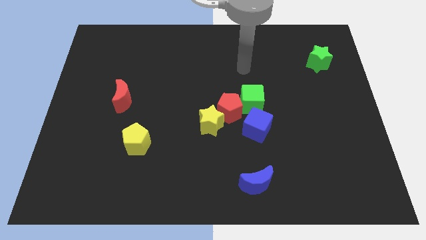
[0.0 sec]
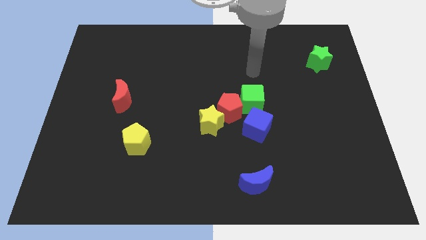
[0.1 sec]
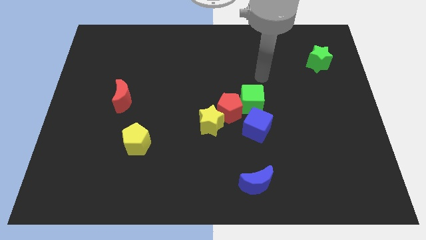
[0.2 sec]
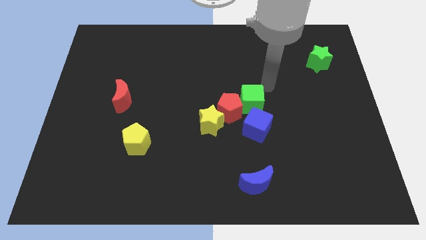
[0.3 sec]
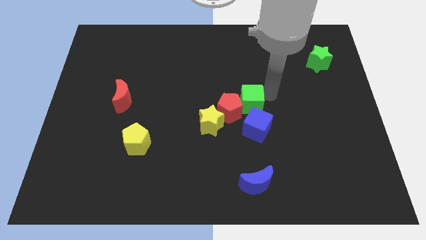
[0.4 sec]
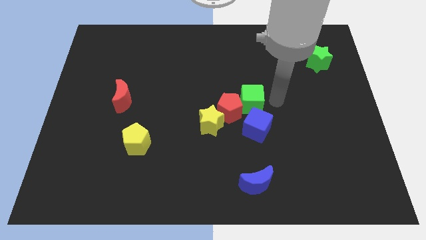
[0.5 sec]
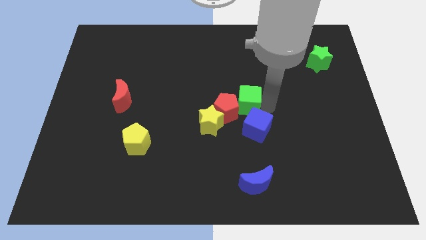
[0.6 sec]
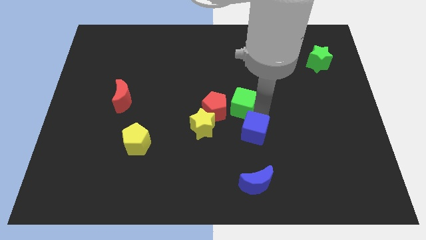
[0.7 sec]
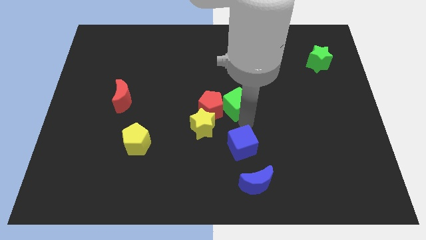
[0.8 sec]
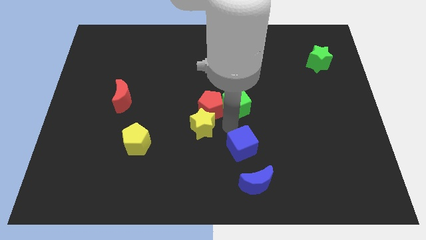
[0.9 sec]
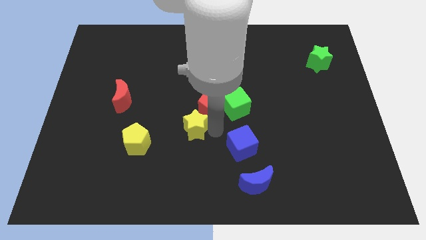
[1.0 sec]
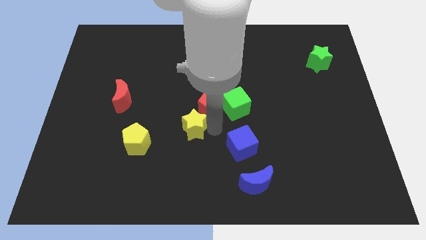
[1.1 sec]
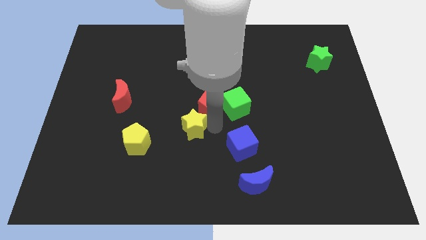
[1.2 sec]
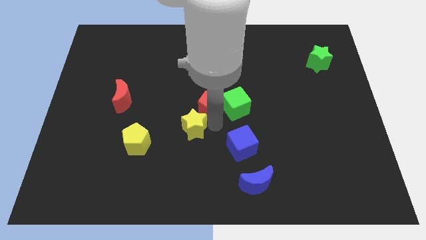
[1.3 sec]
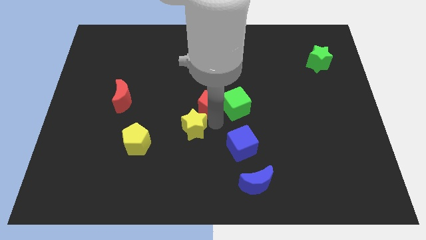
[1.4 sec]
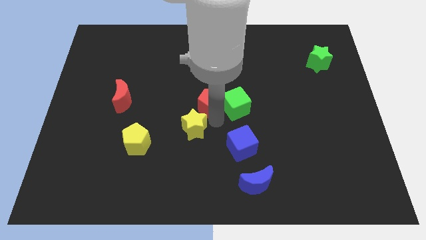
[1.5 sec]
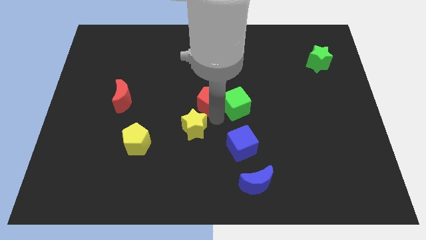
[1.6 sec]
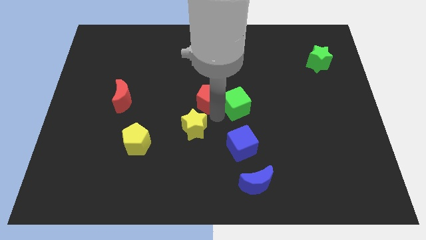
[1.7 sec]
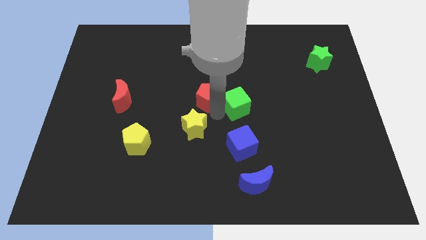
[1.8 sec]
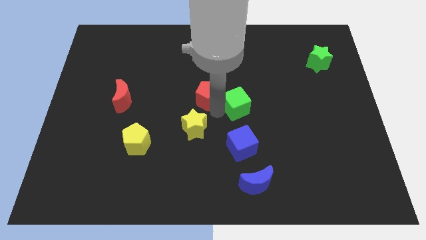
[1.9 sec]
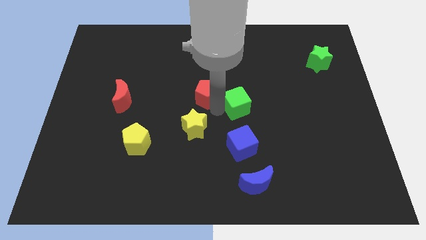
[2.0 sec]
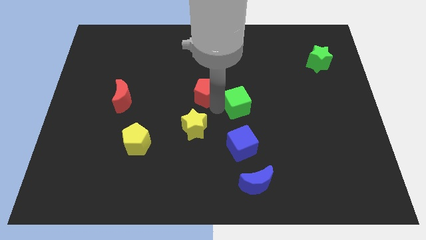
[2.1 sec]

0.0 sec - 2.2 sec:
move the red pentagon away from the group of blocks

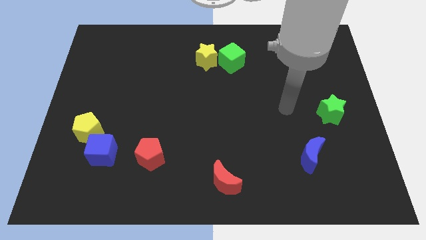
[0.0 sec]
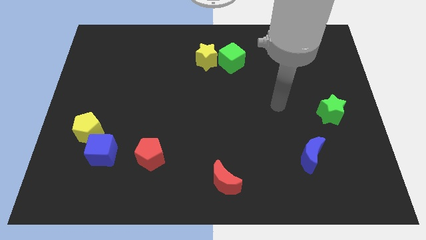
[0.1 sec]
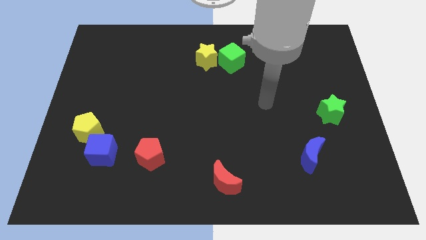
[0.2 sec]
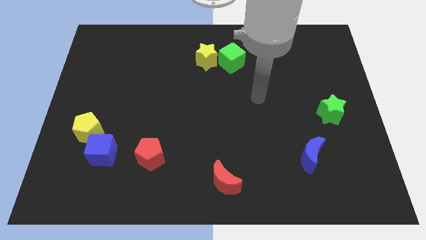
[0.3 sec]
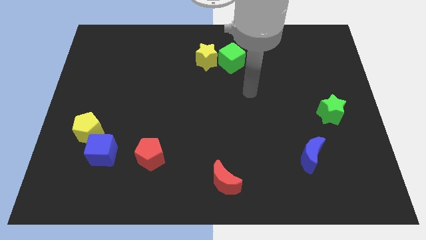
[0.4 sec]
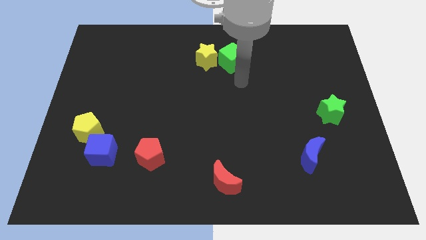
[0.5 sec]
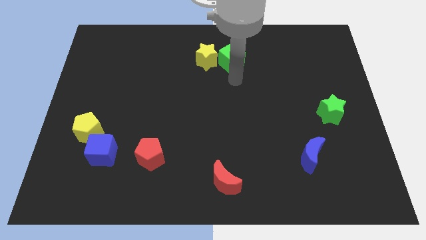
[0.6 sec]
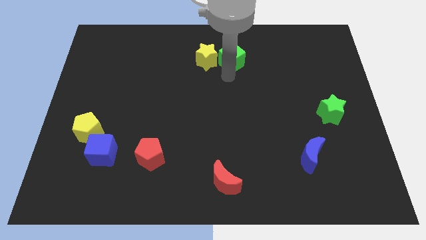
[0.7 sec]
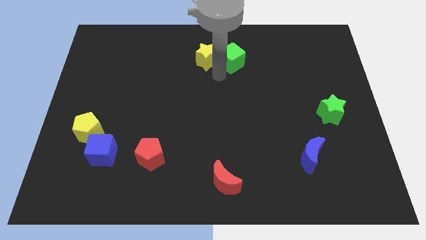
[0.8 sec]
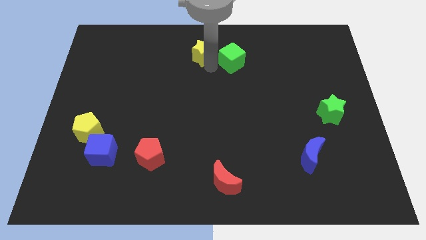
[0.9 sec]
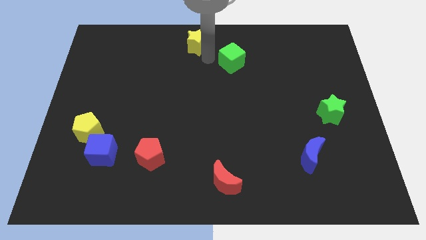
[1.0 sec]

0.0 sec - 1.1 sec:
move the green cube away from the yellow star

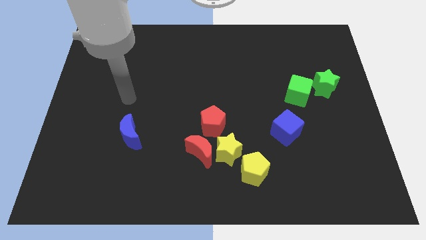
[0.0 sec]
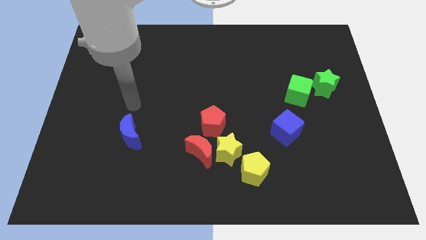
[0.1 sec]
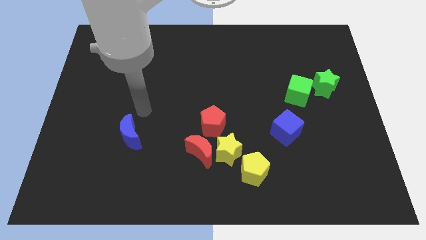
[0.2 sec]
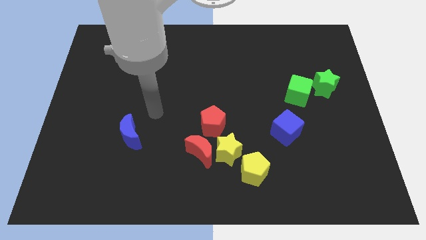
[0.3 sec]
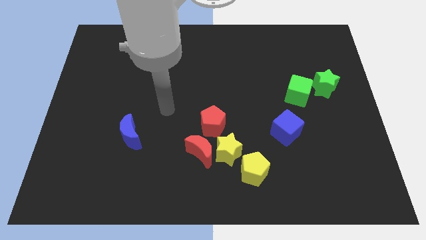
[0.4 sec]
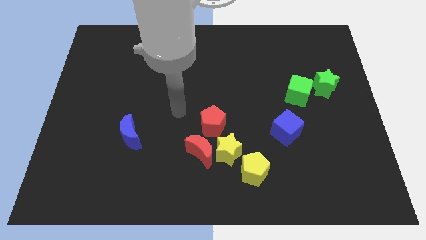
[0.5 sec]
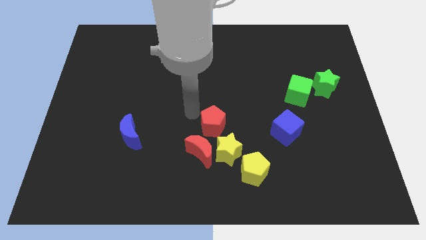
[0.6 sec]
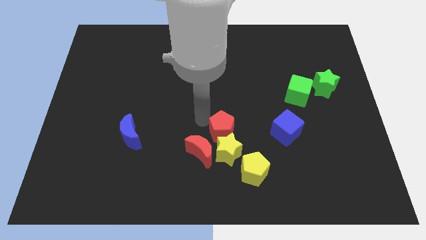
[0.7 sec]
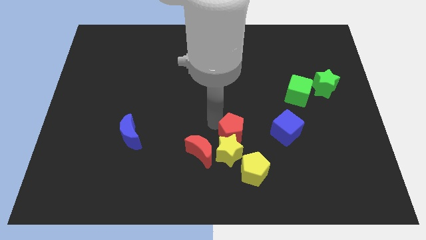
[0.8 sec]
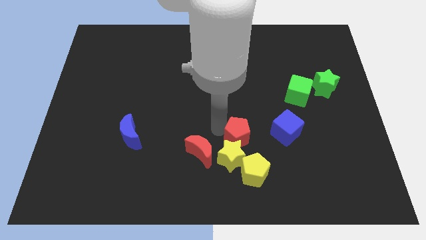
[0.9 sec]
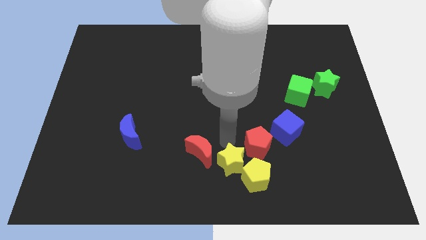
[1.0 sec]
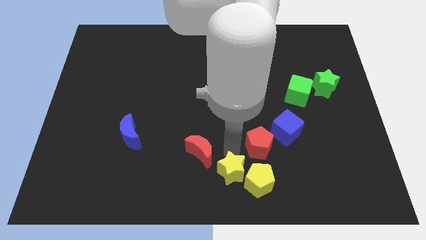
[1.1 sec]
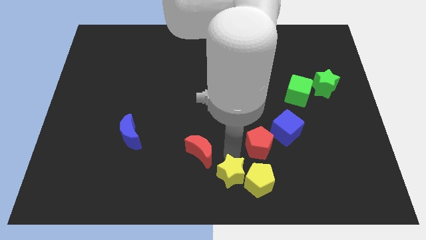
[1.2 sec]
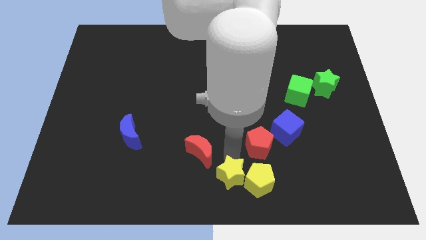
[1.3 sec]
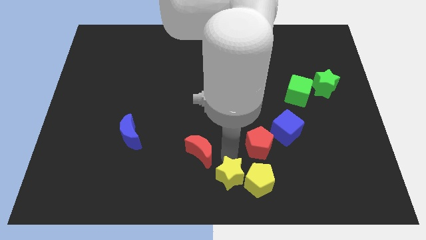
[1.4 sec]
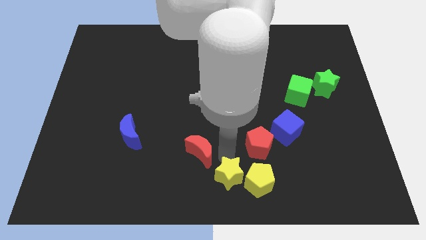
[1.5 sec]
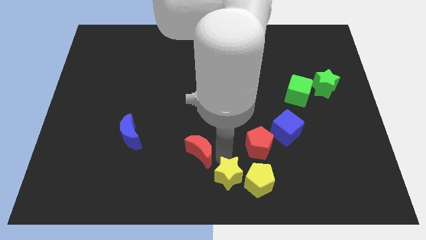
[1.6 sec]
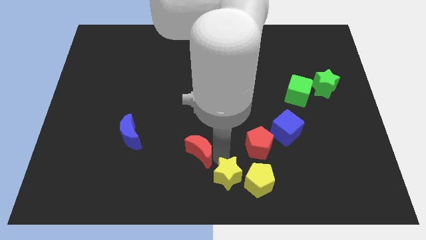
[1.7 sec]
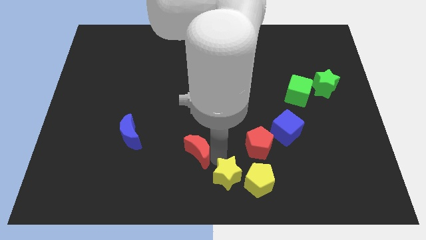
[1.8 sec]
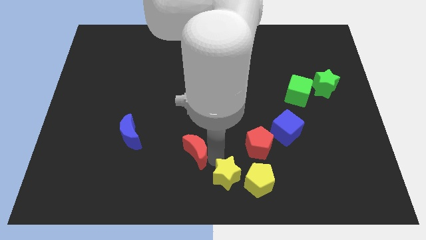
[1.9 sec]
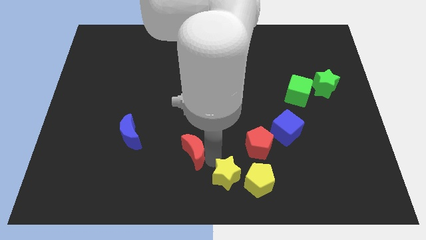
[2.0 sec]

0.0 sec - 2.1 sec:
move the red moon away from the yellow star and red pentagon

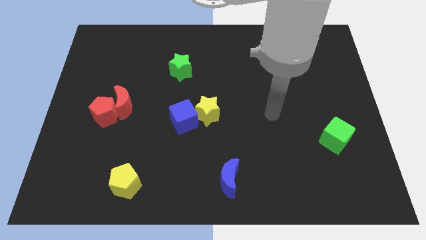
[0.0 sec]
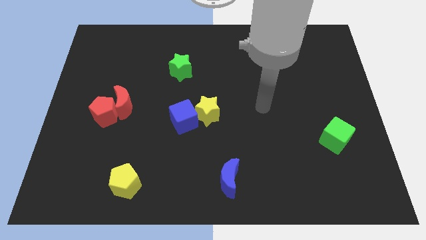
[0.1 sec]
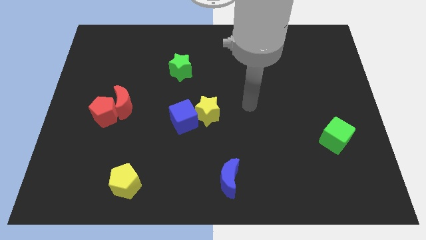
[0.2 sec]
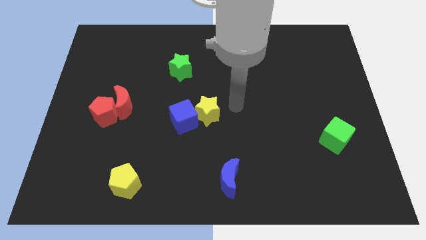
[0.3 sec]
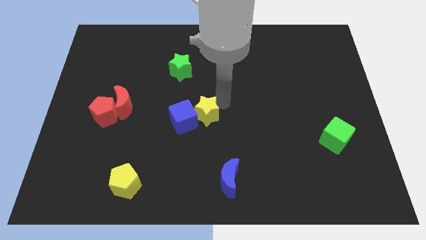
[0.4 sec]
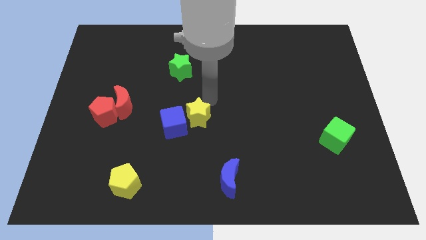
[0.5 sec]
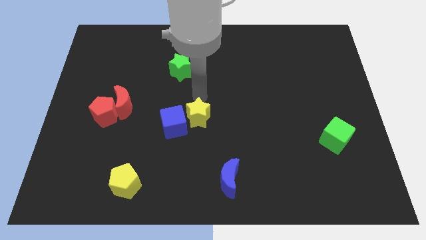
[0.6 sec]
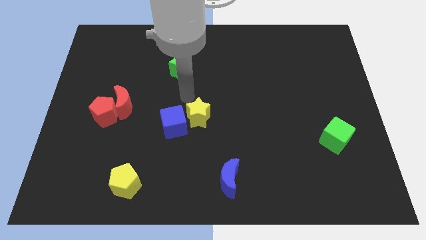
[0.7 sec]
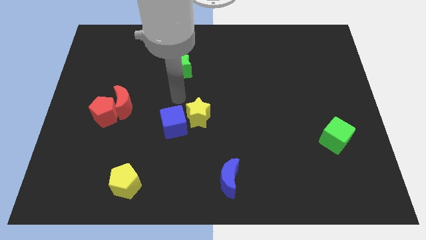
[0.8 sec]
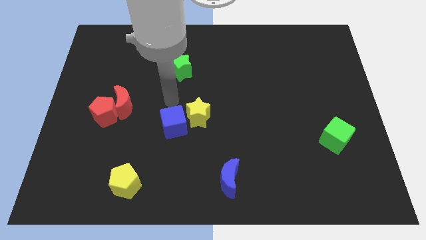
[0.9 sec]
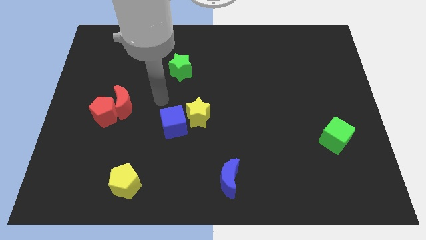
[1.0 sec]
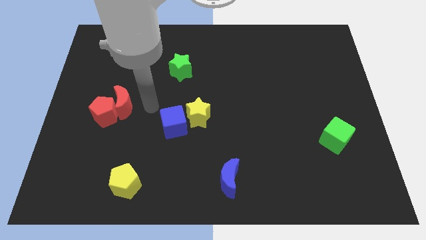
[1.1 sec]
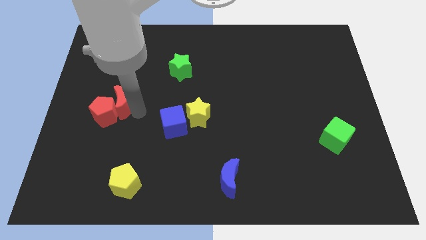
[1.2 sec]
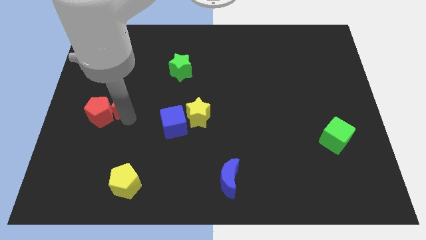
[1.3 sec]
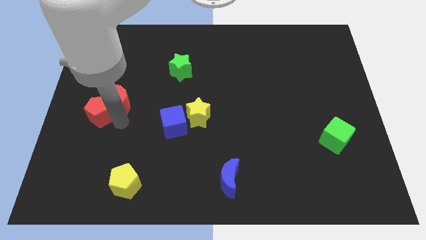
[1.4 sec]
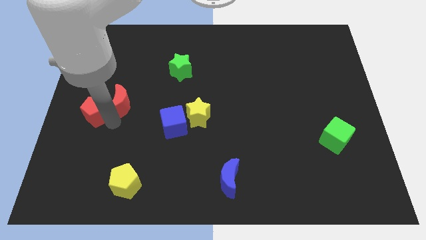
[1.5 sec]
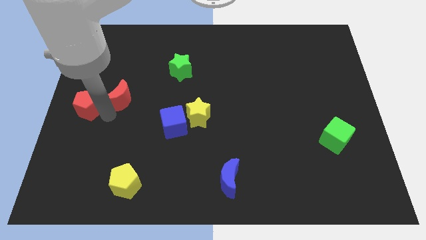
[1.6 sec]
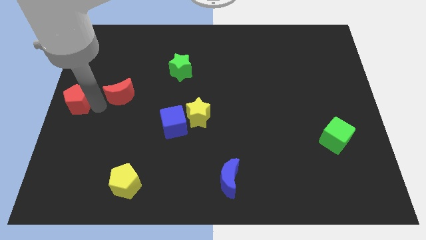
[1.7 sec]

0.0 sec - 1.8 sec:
separate the red moon from the red pentagon

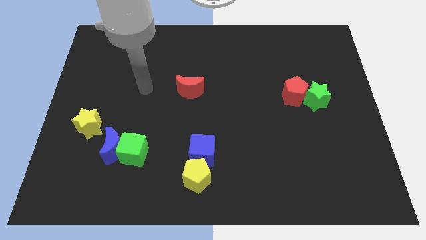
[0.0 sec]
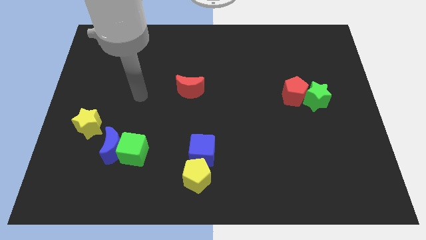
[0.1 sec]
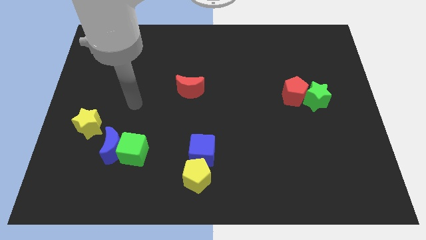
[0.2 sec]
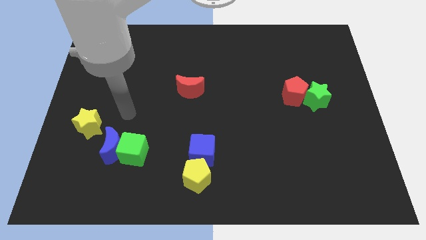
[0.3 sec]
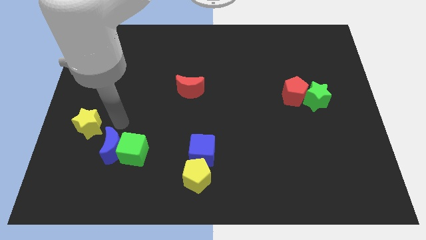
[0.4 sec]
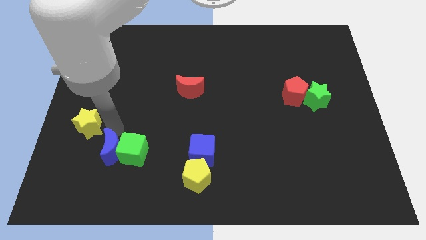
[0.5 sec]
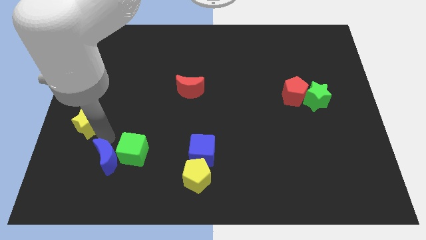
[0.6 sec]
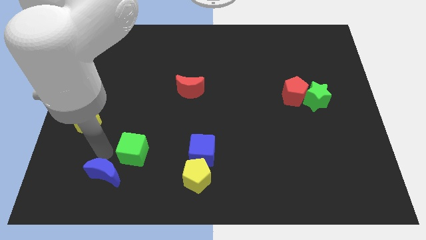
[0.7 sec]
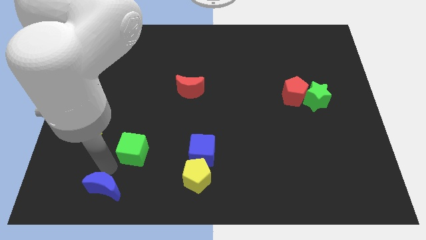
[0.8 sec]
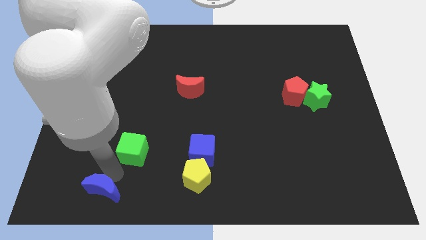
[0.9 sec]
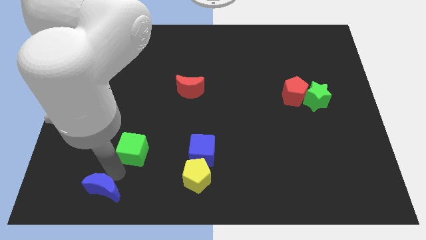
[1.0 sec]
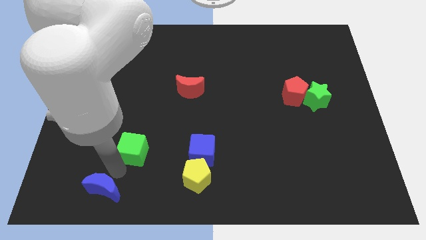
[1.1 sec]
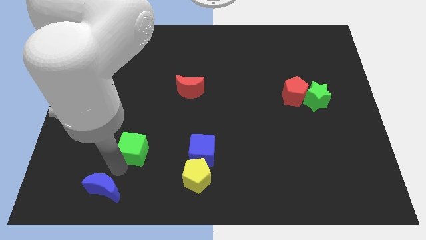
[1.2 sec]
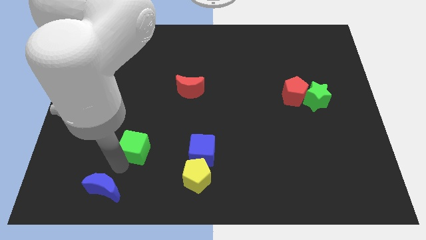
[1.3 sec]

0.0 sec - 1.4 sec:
move the green cube away from the blue moon

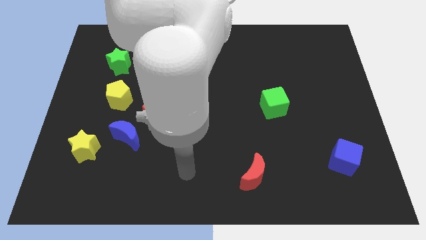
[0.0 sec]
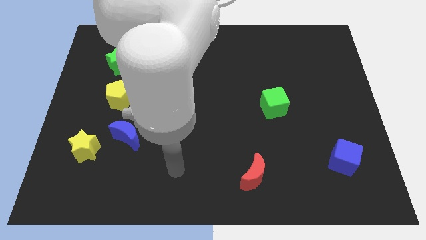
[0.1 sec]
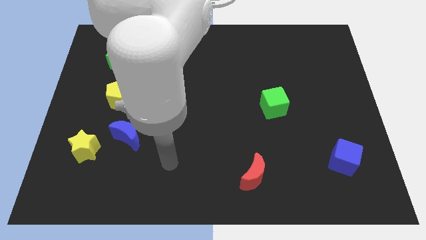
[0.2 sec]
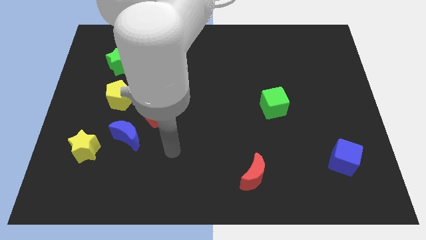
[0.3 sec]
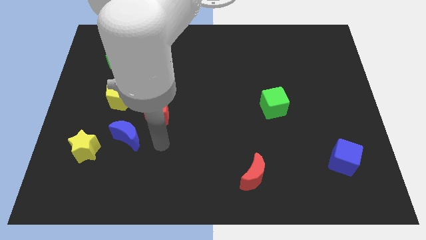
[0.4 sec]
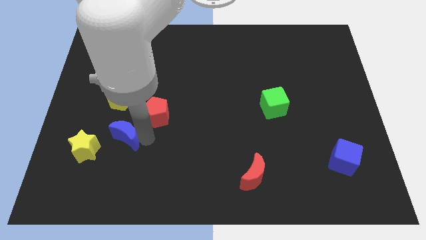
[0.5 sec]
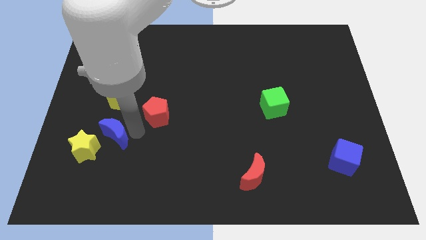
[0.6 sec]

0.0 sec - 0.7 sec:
pull the red pentagon apart from the blue moon

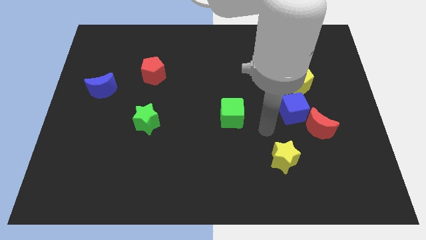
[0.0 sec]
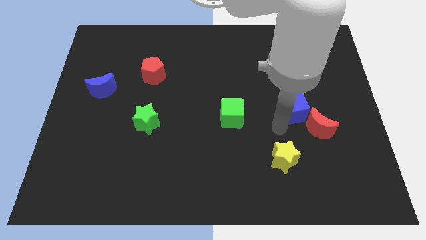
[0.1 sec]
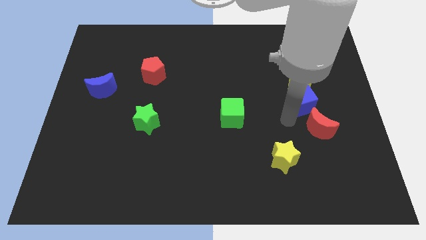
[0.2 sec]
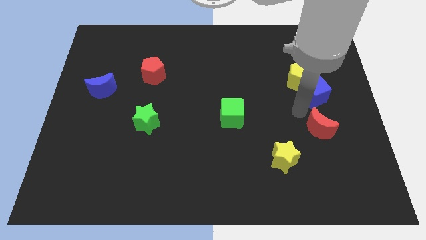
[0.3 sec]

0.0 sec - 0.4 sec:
separate the red moon from the blue cube
